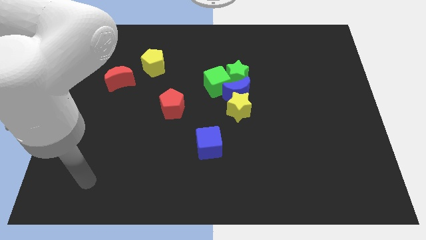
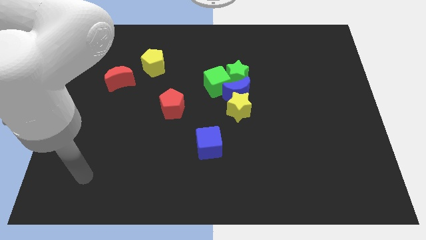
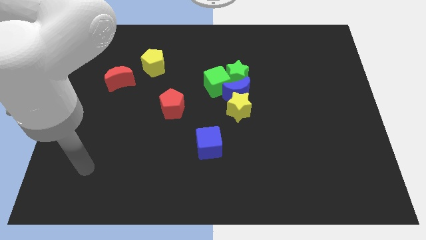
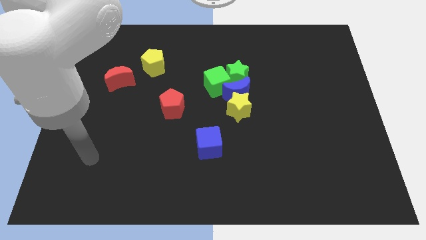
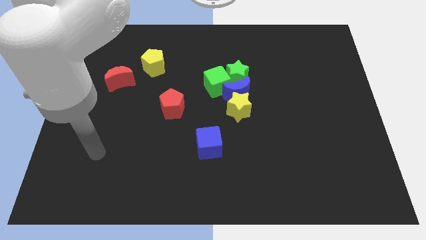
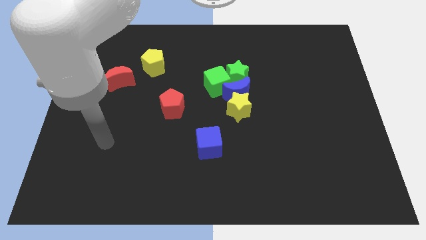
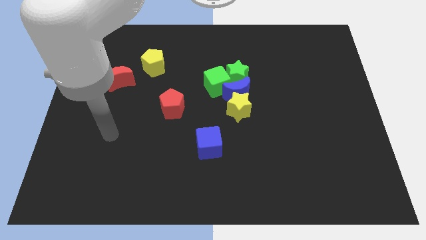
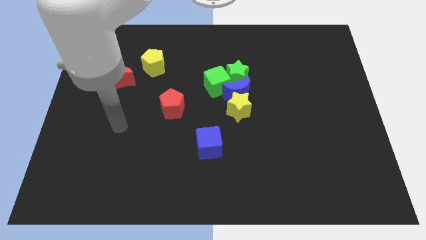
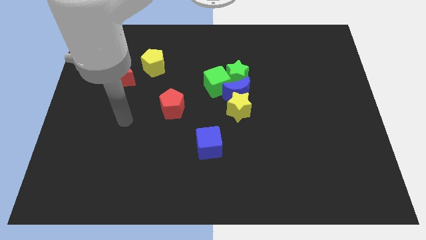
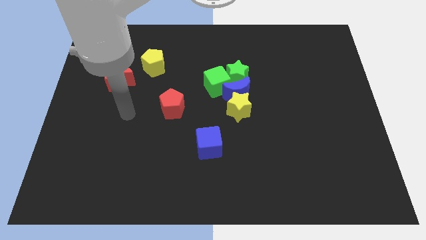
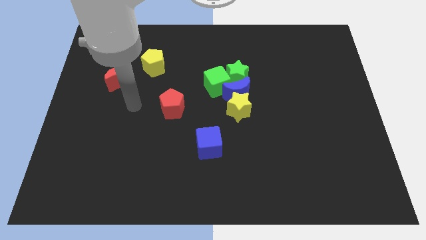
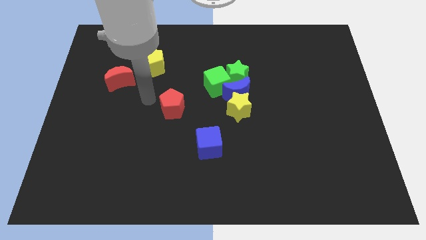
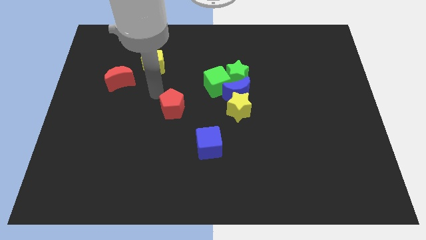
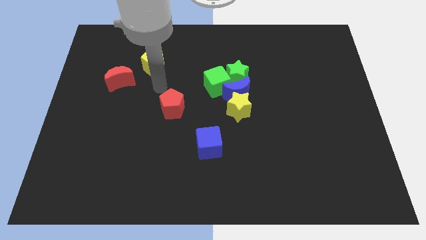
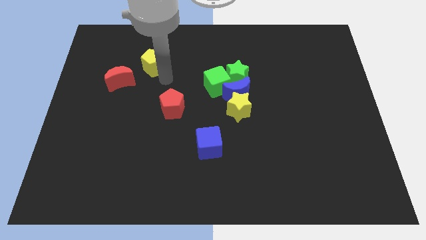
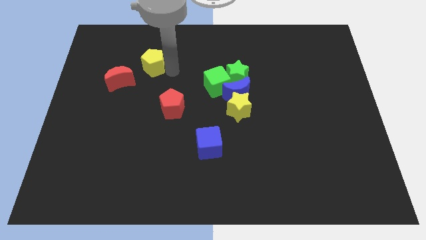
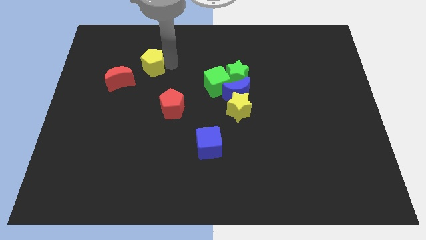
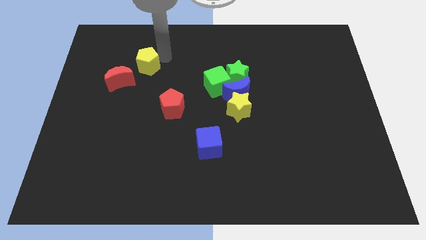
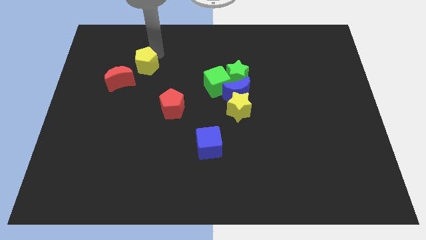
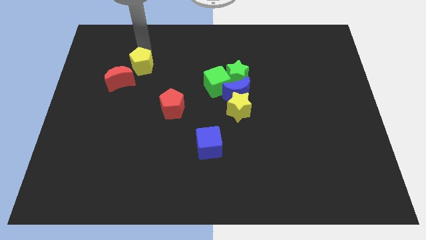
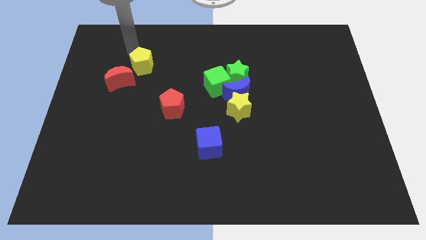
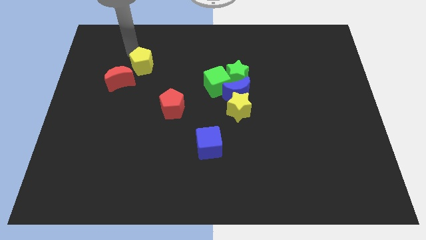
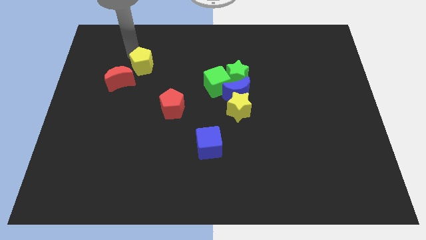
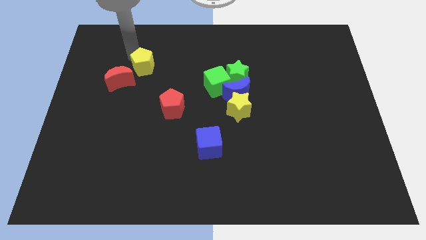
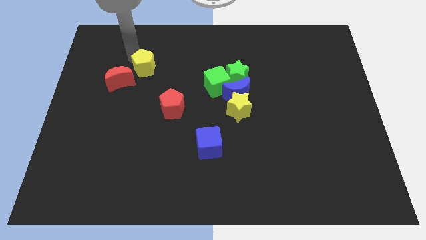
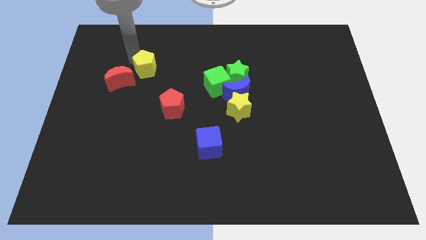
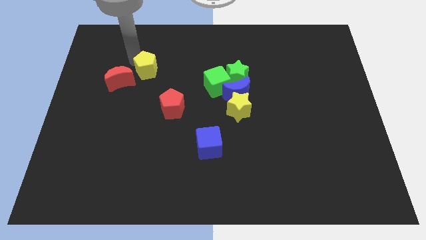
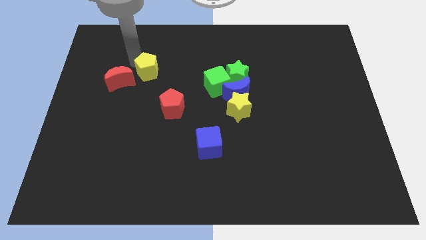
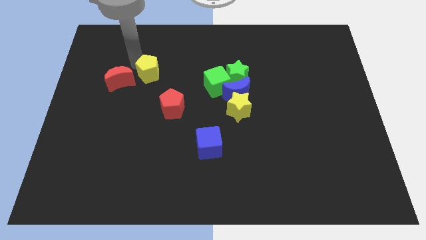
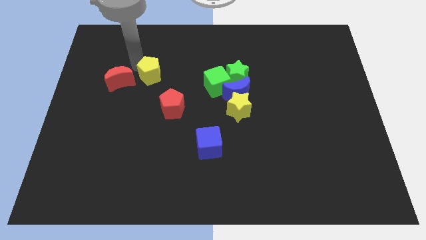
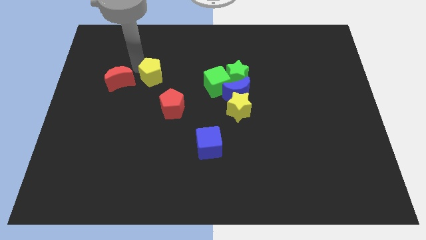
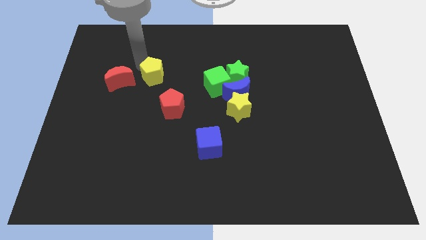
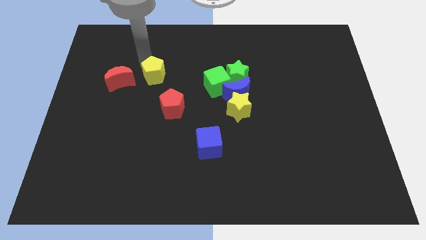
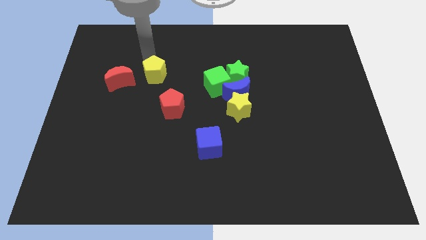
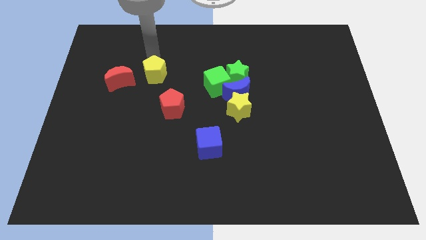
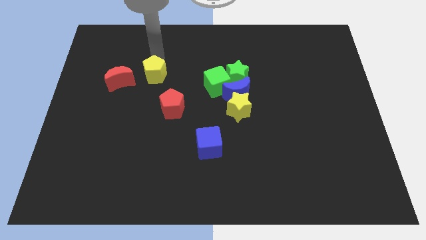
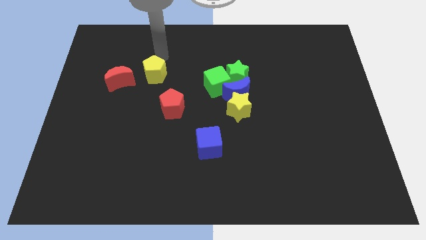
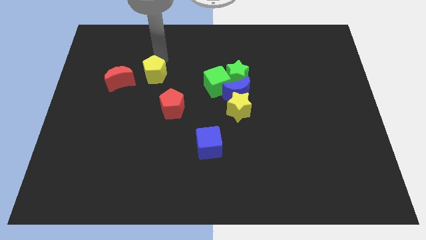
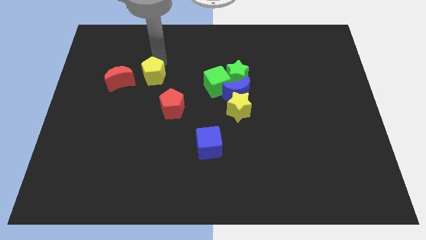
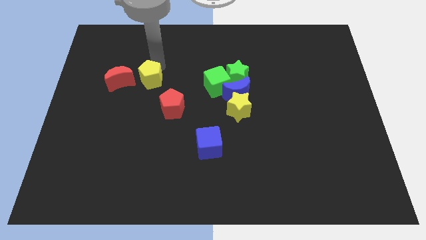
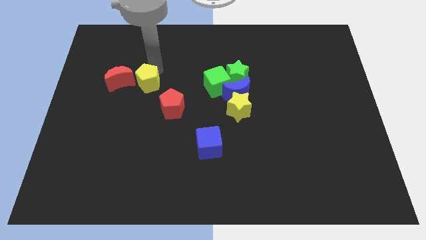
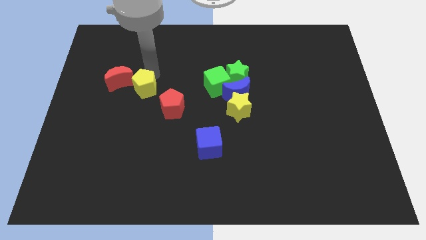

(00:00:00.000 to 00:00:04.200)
slide the yellow pentagon somewhat downwards

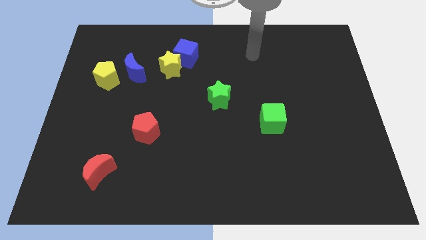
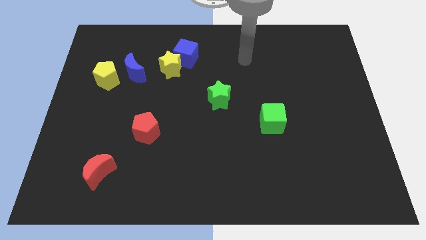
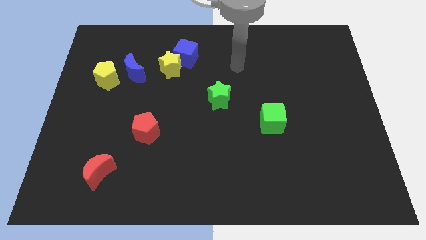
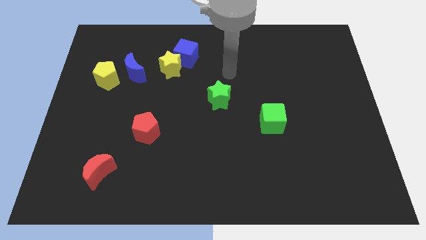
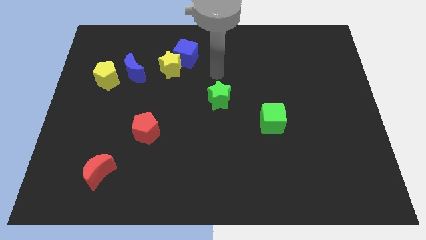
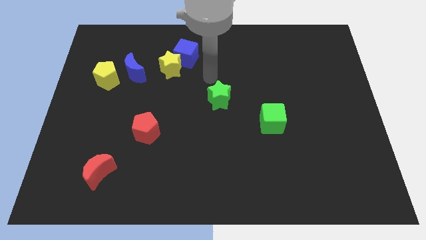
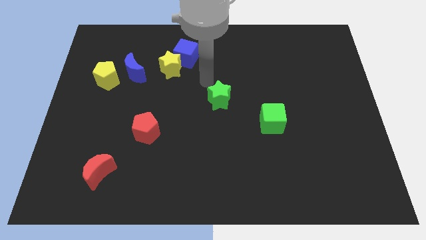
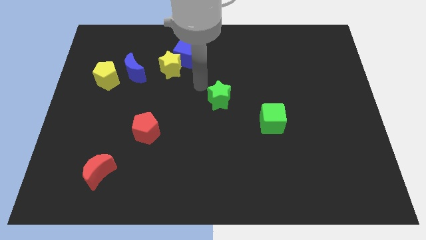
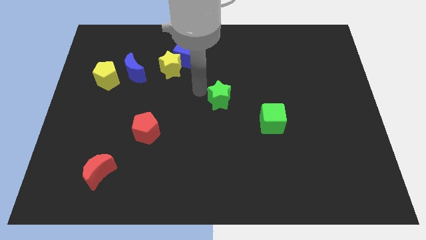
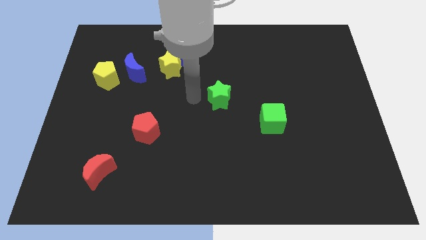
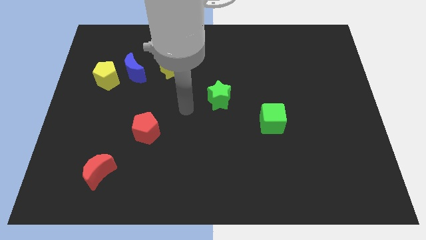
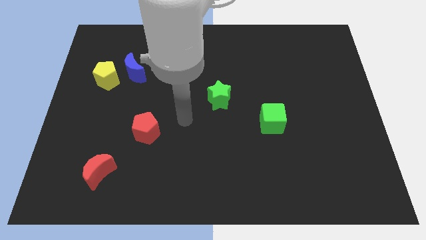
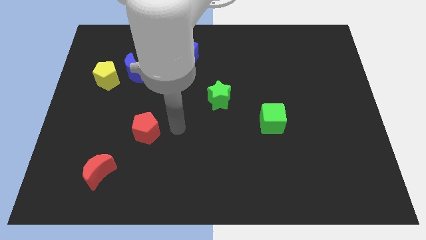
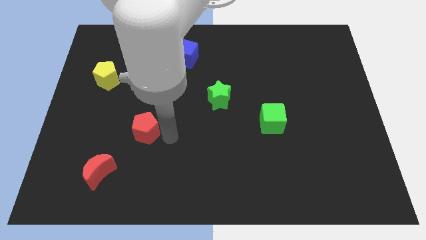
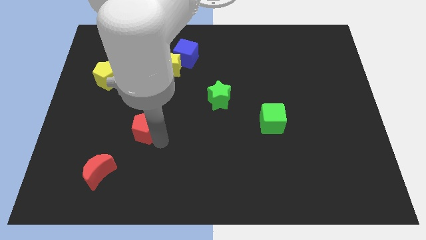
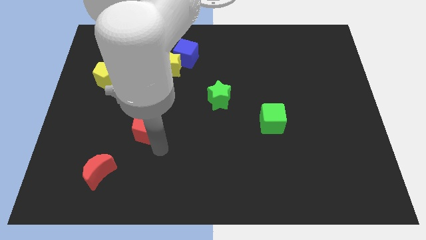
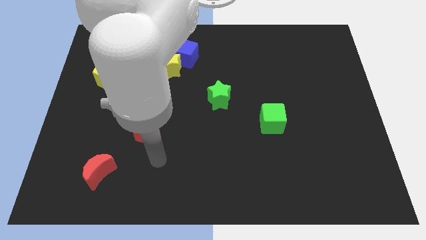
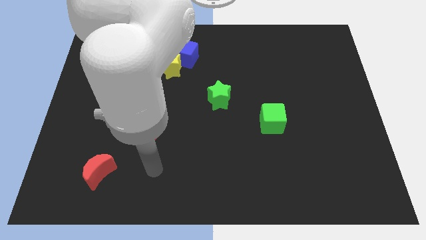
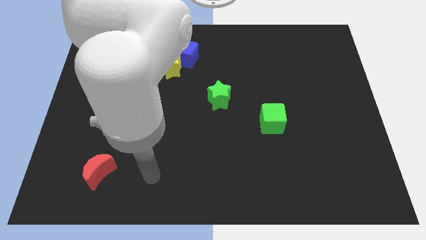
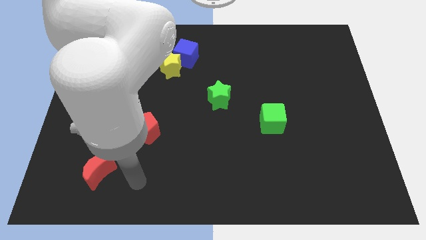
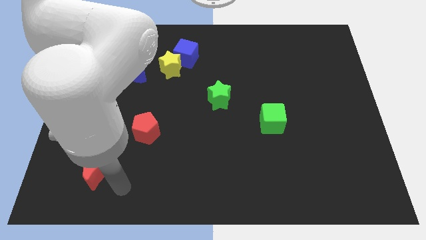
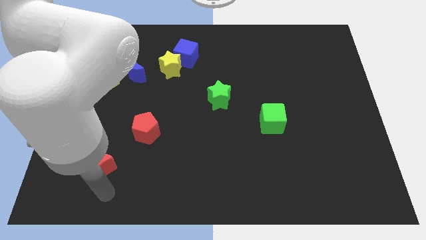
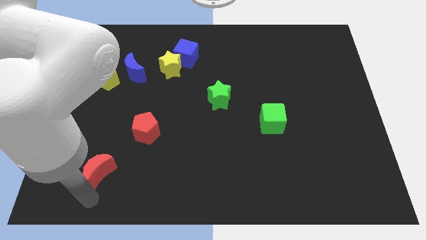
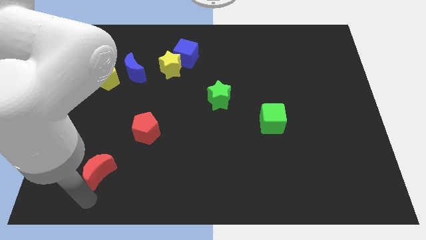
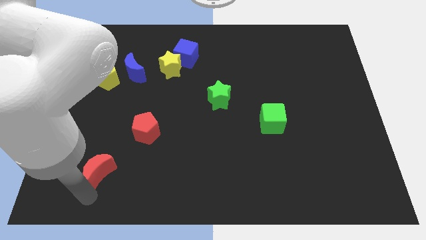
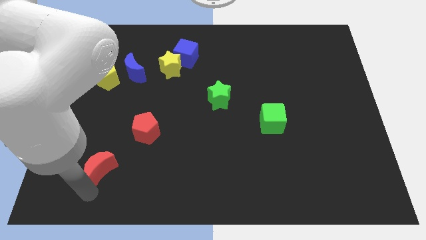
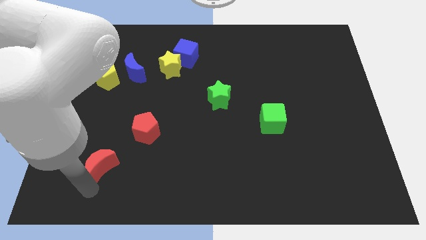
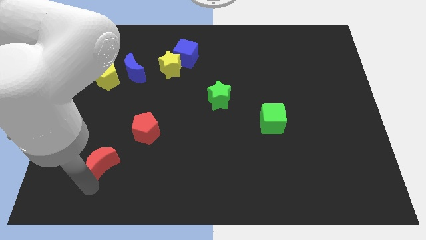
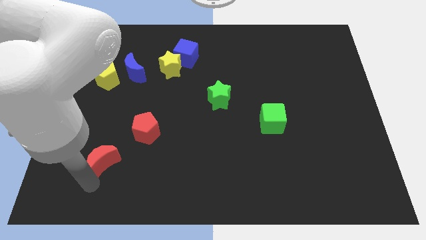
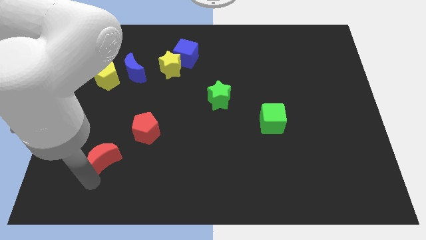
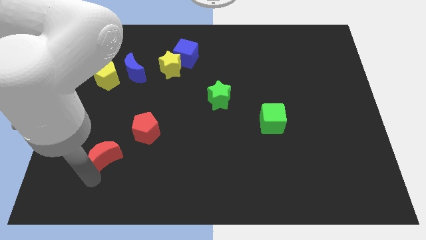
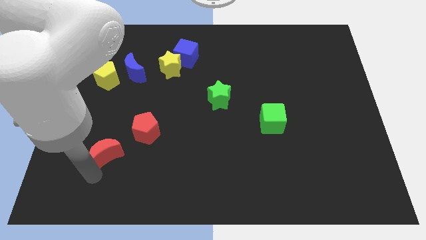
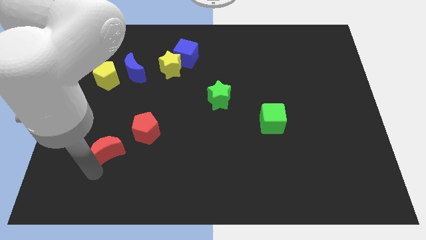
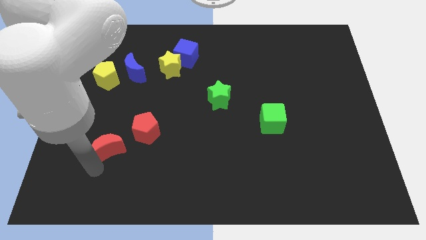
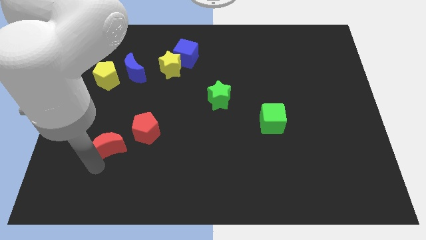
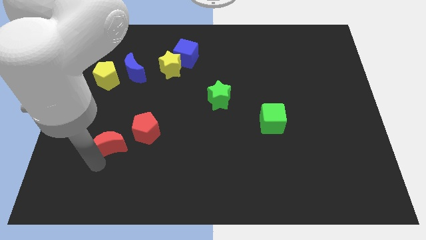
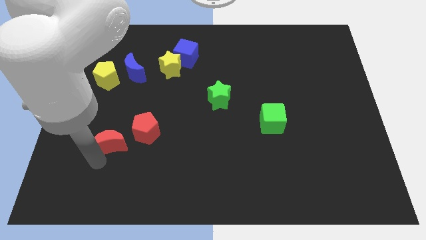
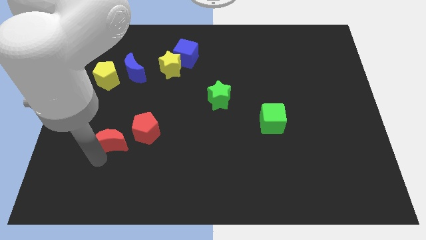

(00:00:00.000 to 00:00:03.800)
slightly push the red moon up
